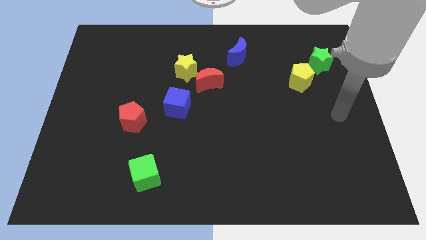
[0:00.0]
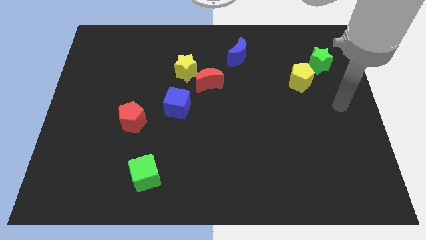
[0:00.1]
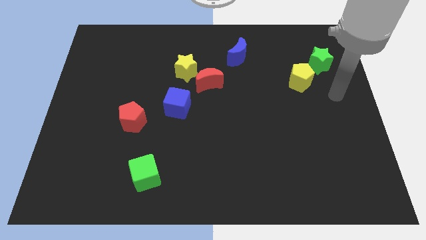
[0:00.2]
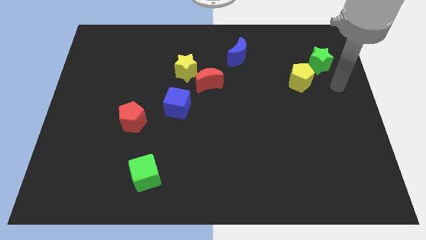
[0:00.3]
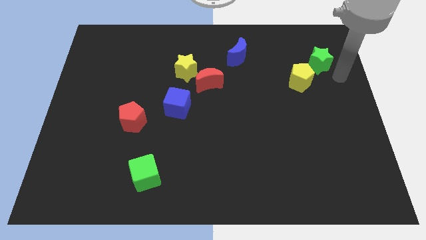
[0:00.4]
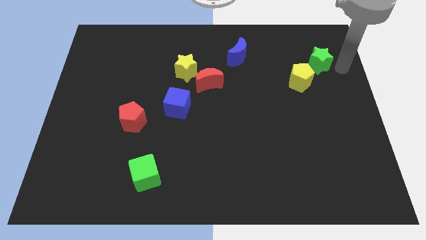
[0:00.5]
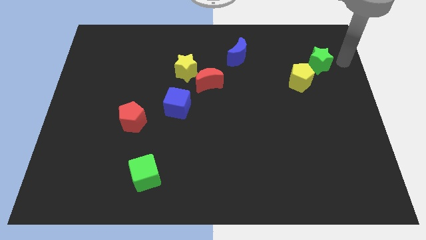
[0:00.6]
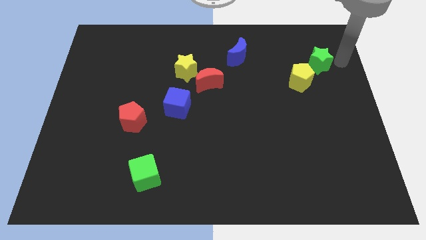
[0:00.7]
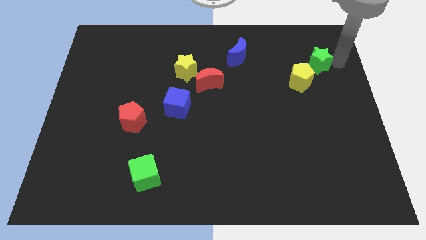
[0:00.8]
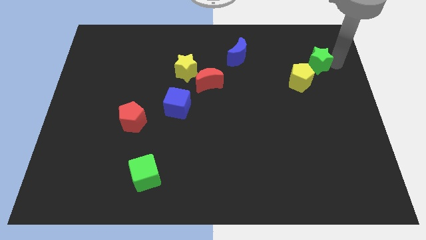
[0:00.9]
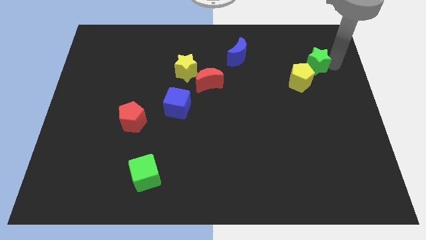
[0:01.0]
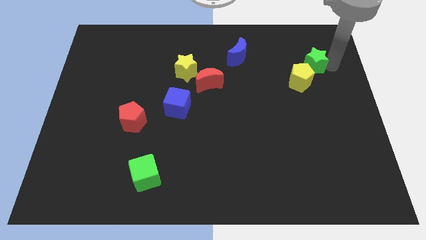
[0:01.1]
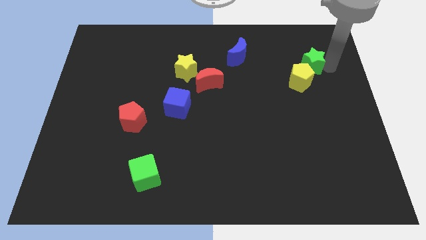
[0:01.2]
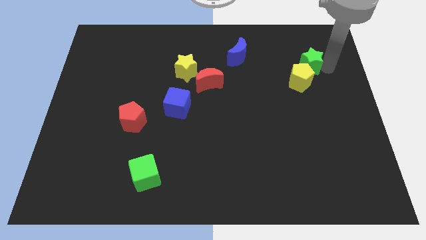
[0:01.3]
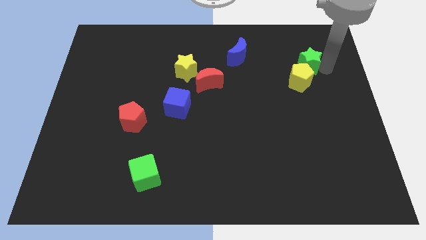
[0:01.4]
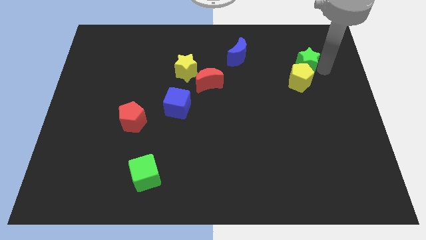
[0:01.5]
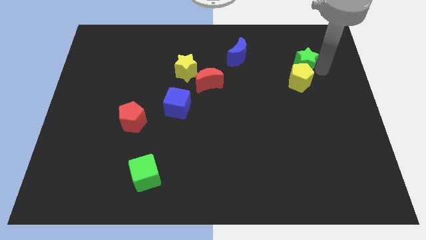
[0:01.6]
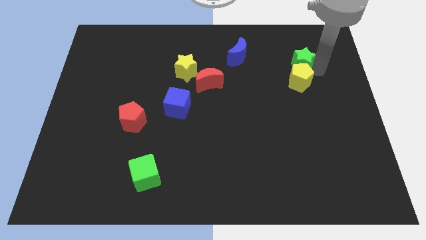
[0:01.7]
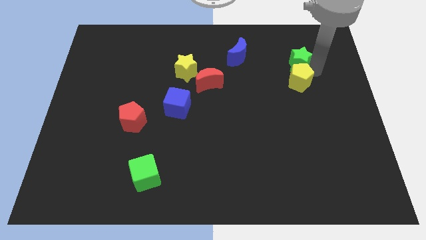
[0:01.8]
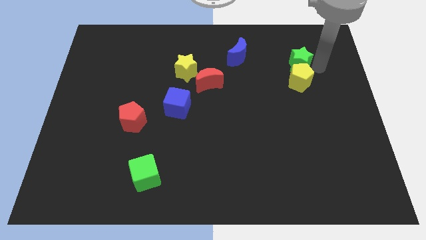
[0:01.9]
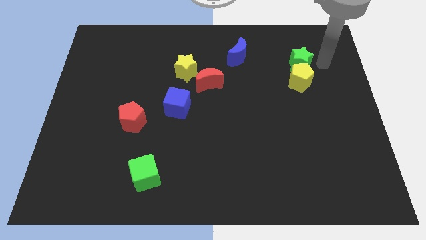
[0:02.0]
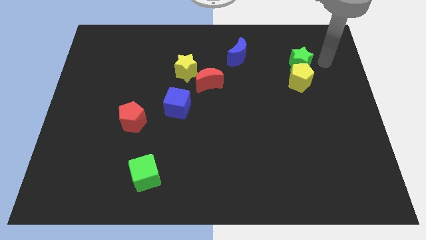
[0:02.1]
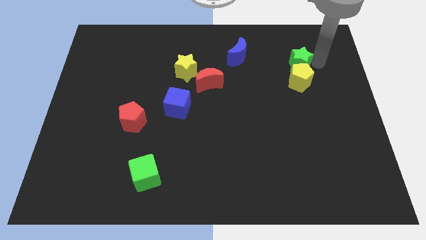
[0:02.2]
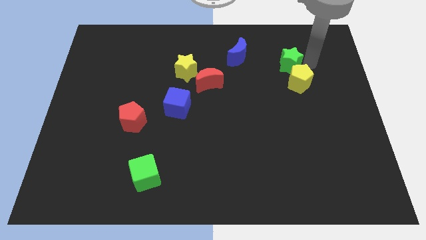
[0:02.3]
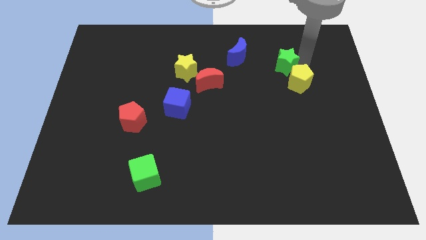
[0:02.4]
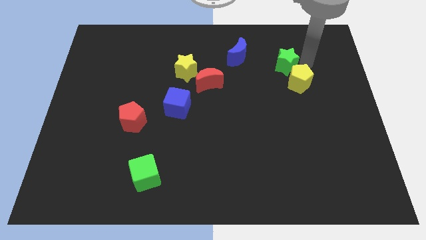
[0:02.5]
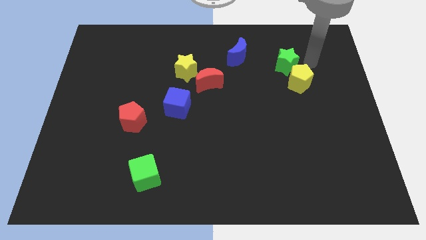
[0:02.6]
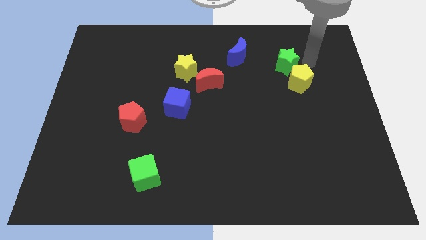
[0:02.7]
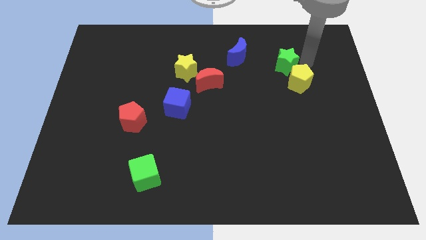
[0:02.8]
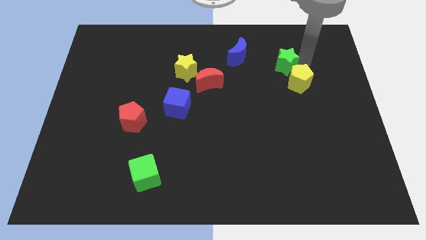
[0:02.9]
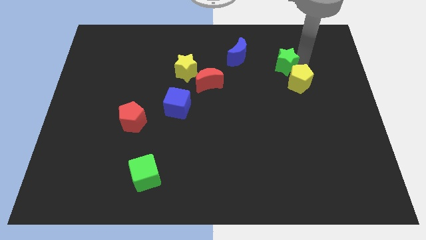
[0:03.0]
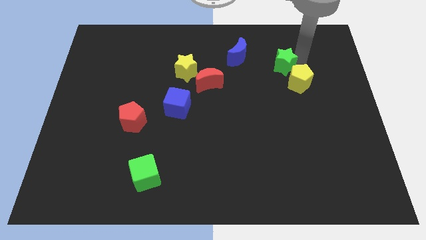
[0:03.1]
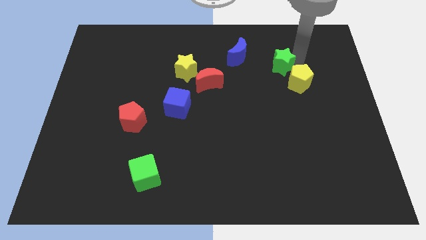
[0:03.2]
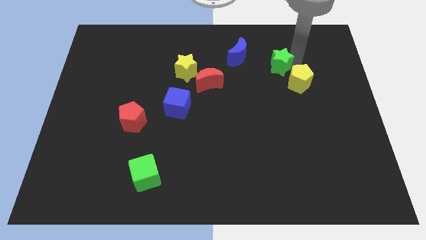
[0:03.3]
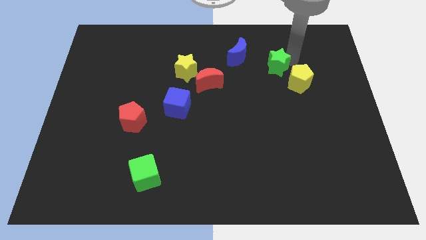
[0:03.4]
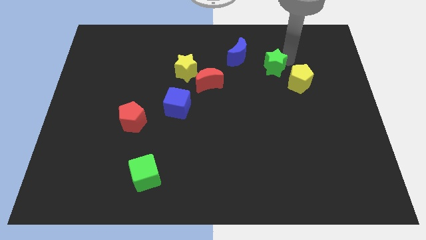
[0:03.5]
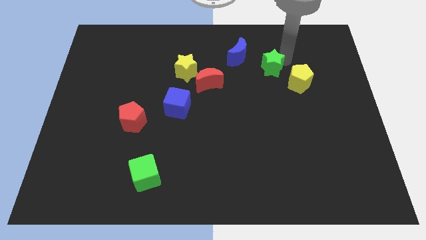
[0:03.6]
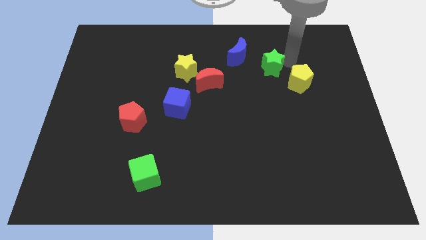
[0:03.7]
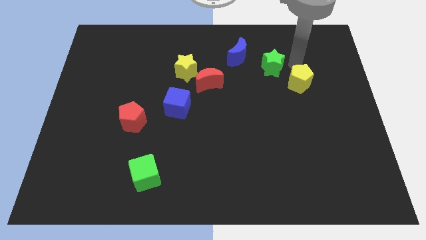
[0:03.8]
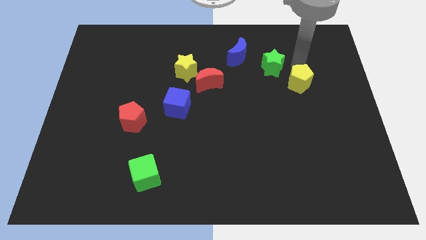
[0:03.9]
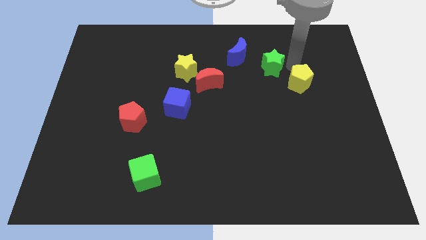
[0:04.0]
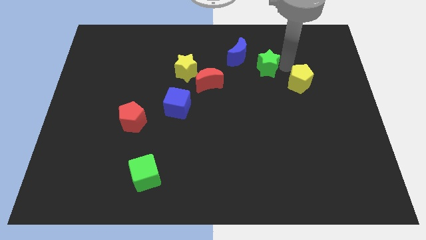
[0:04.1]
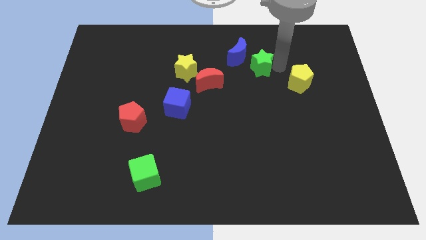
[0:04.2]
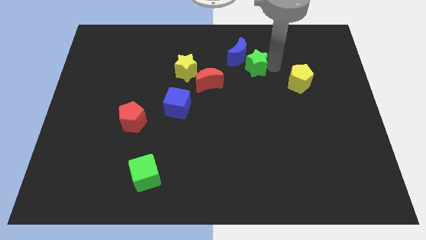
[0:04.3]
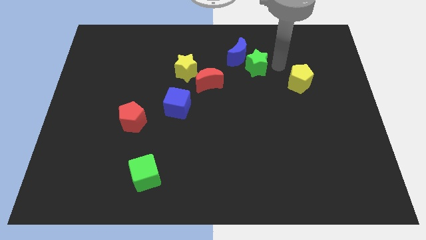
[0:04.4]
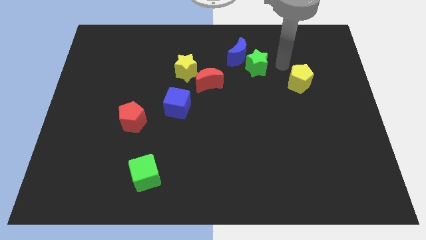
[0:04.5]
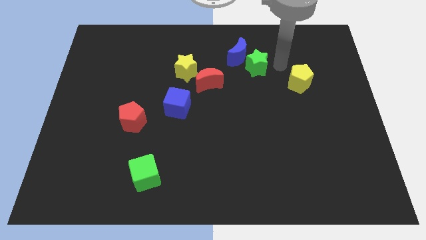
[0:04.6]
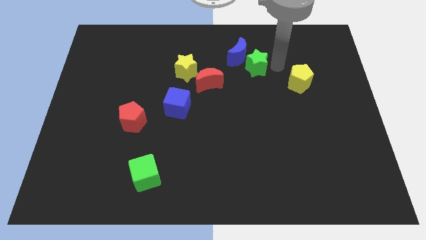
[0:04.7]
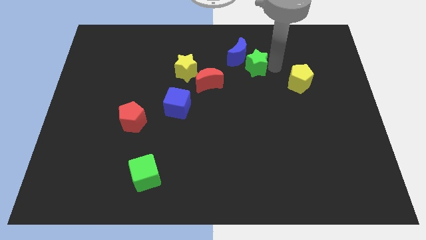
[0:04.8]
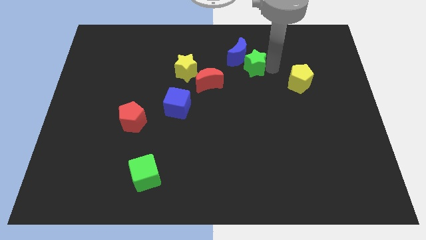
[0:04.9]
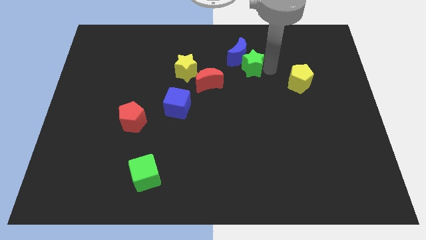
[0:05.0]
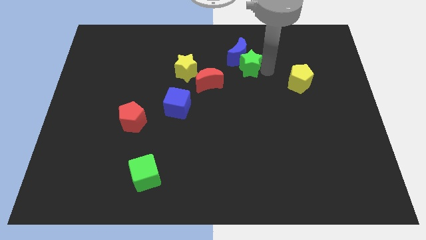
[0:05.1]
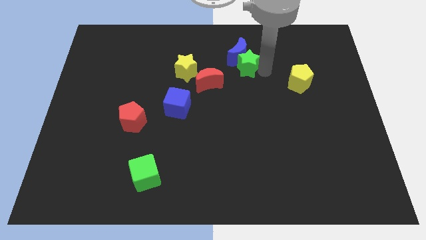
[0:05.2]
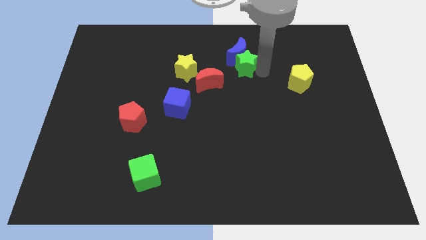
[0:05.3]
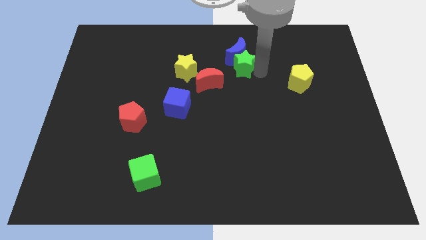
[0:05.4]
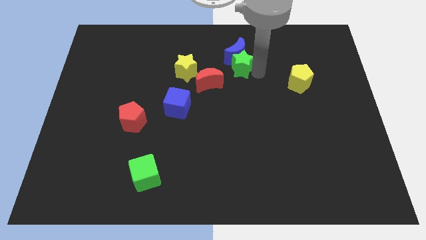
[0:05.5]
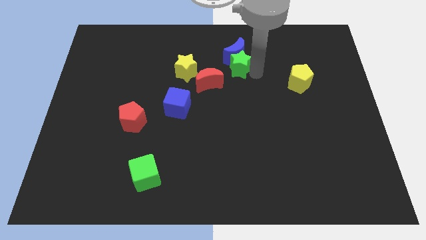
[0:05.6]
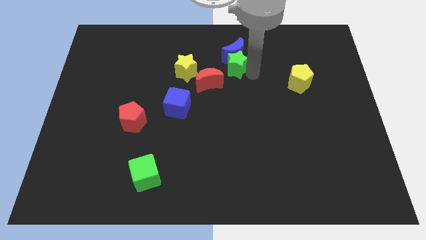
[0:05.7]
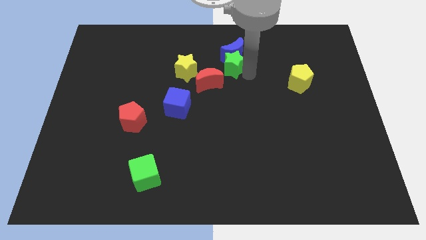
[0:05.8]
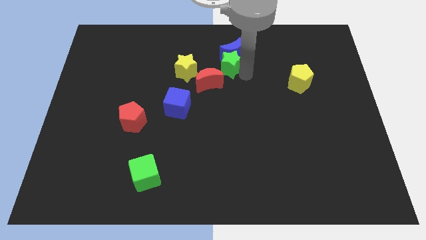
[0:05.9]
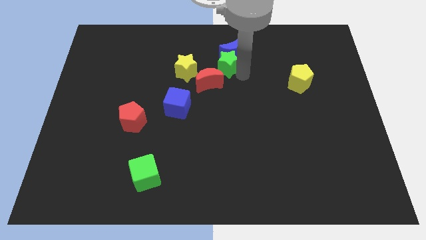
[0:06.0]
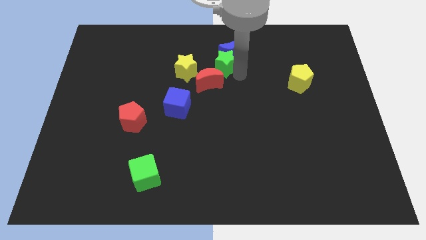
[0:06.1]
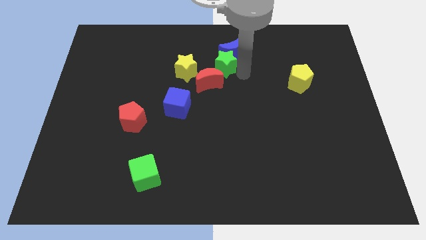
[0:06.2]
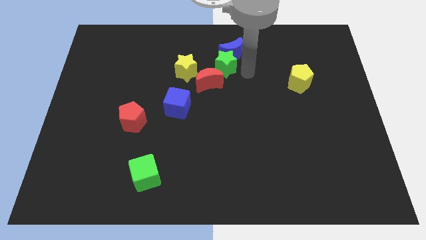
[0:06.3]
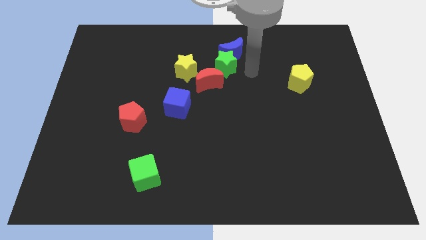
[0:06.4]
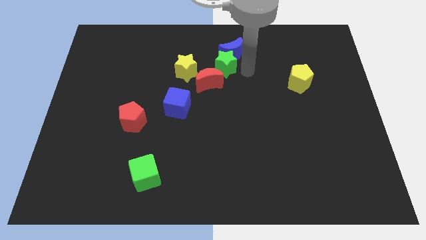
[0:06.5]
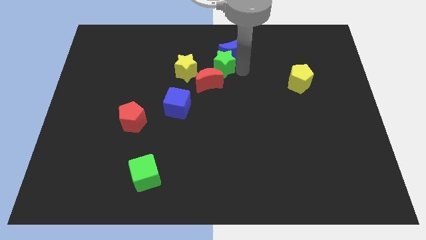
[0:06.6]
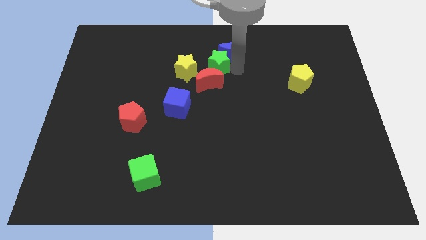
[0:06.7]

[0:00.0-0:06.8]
put the green star left of the blue moon
